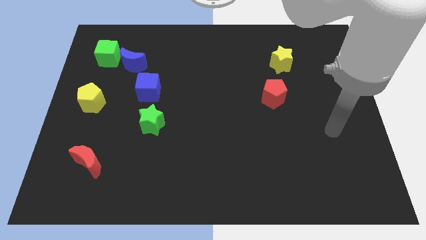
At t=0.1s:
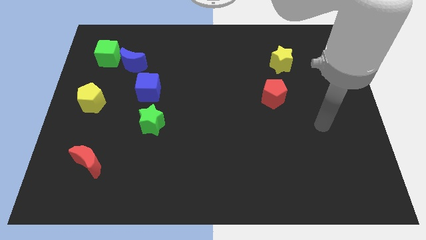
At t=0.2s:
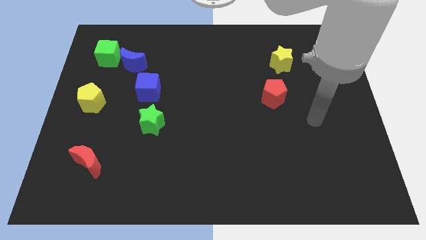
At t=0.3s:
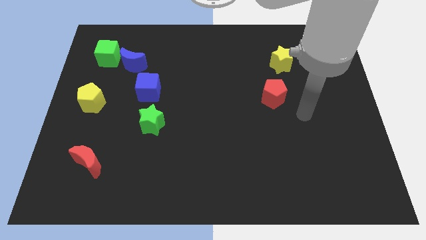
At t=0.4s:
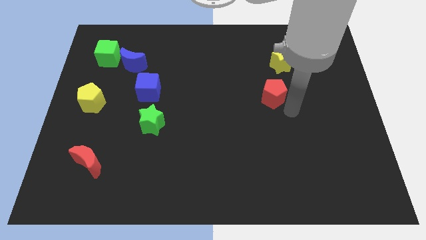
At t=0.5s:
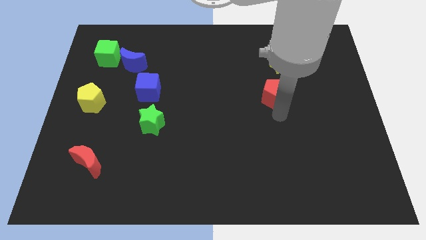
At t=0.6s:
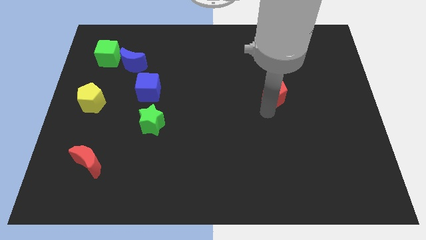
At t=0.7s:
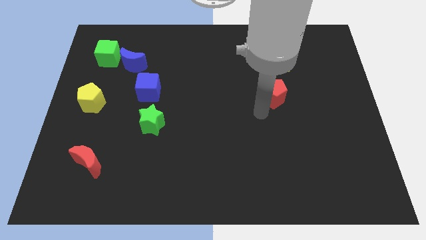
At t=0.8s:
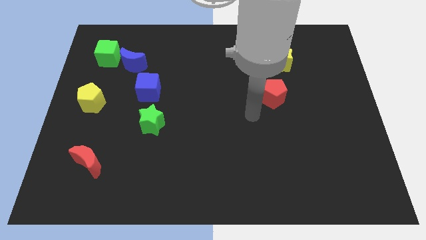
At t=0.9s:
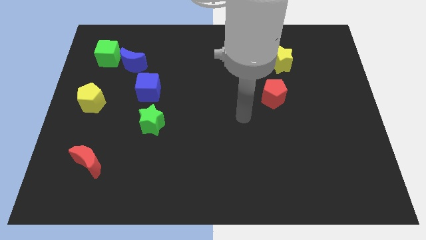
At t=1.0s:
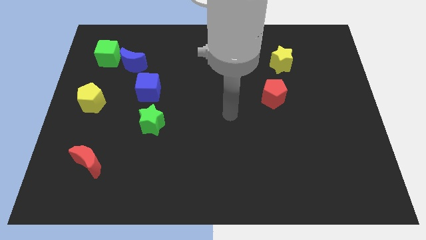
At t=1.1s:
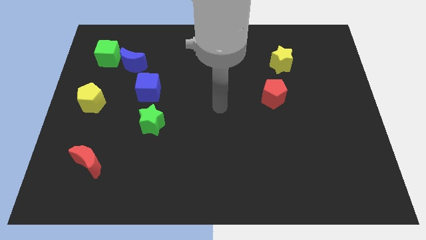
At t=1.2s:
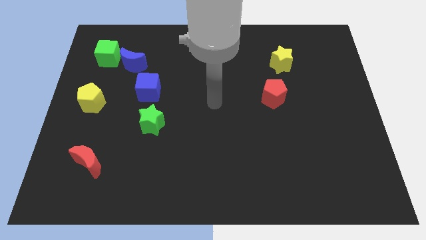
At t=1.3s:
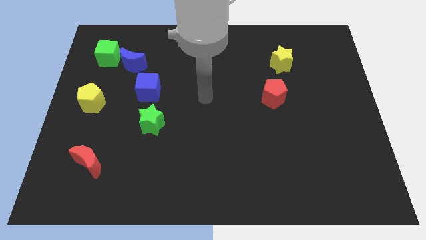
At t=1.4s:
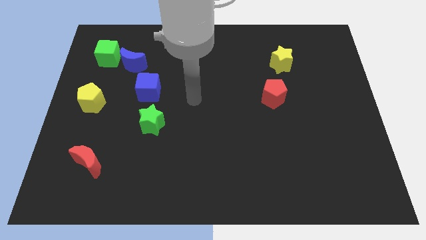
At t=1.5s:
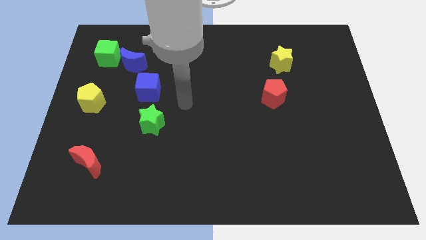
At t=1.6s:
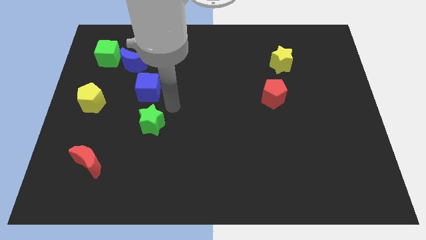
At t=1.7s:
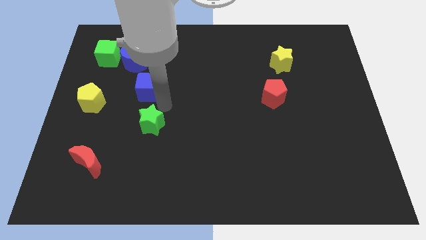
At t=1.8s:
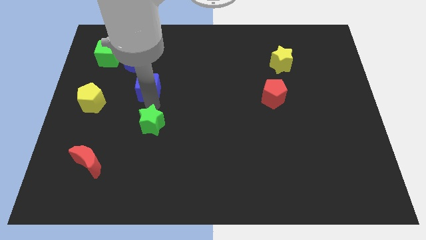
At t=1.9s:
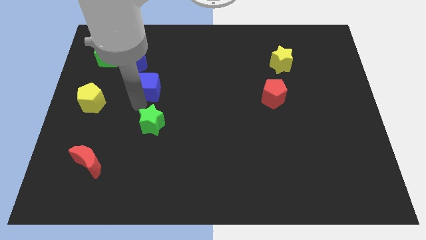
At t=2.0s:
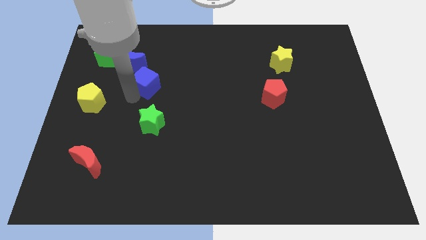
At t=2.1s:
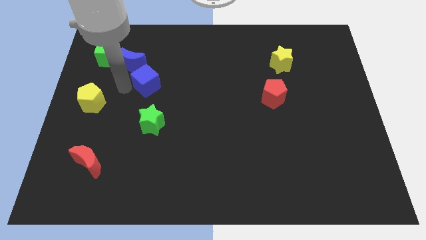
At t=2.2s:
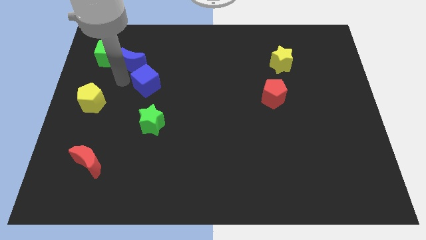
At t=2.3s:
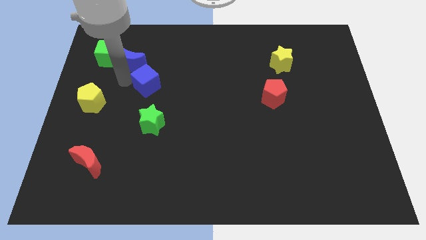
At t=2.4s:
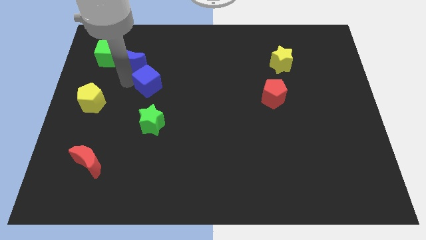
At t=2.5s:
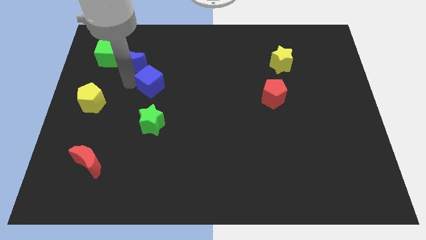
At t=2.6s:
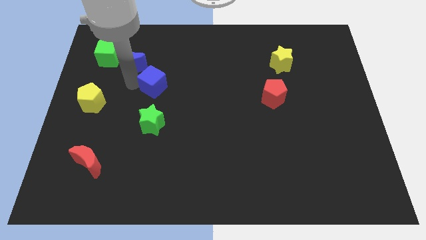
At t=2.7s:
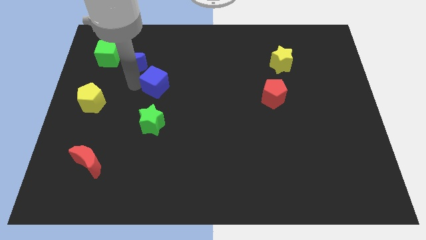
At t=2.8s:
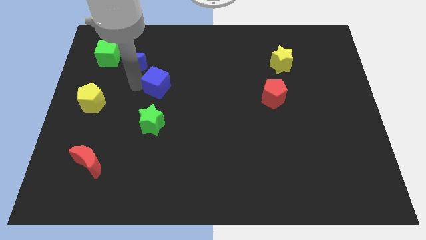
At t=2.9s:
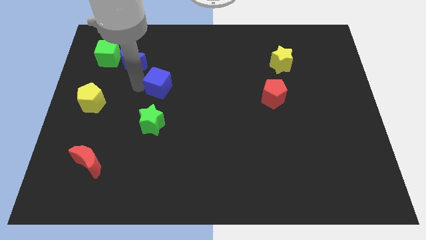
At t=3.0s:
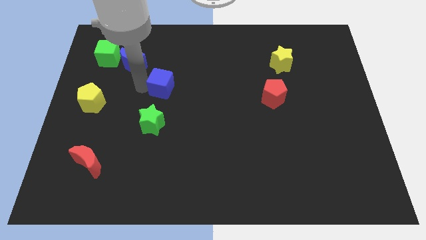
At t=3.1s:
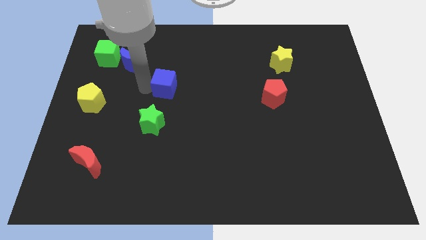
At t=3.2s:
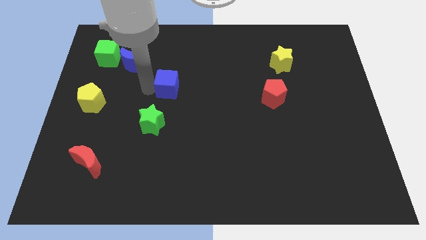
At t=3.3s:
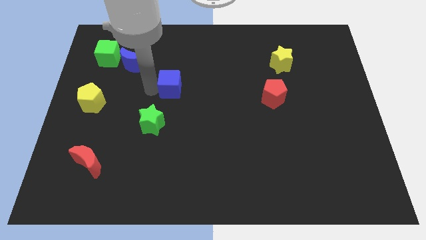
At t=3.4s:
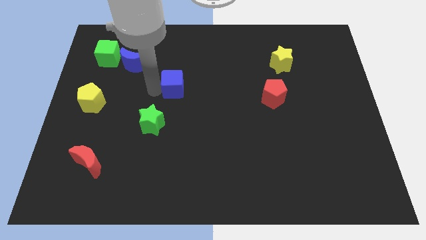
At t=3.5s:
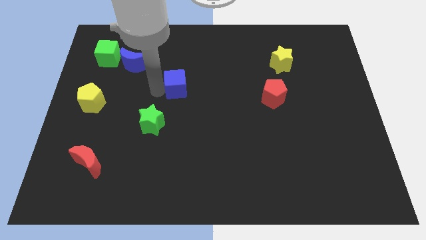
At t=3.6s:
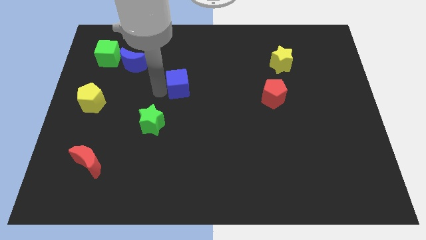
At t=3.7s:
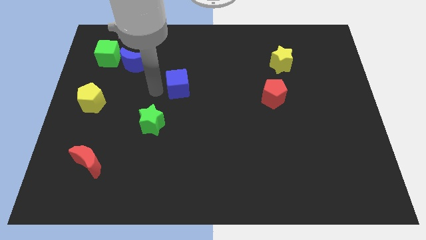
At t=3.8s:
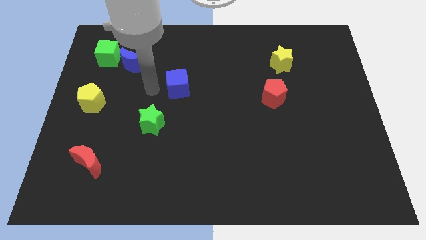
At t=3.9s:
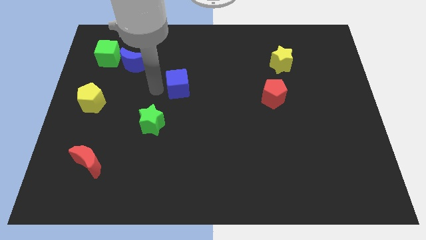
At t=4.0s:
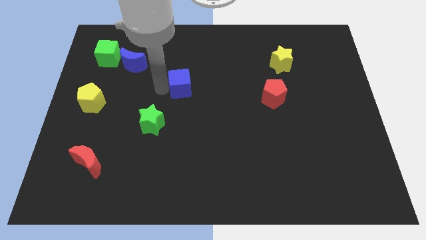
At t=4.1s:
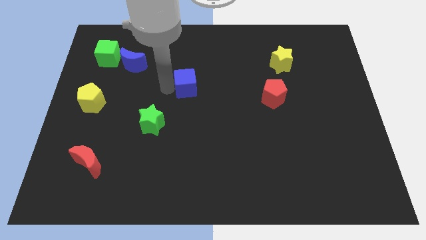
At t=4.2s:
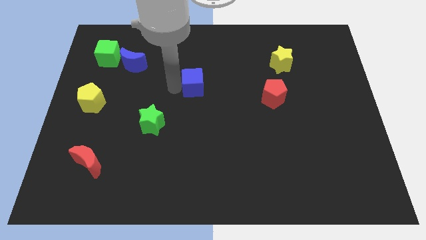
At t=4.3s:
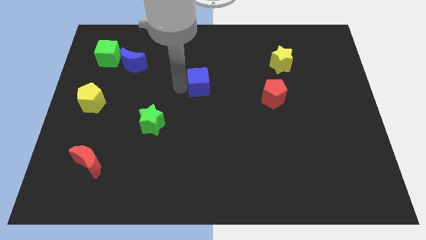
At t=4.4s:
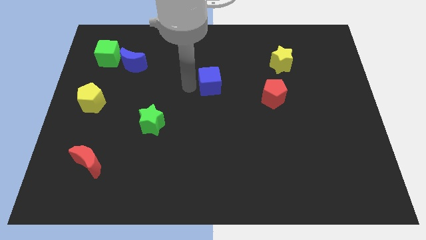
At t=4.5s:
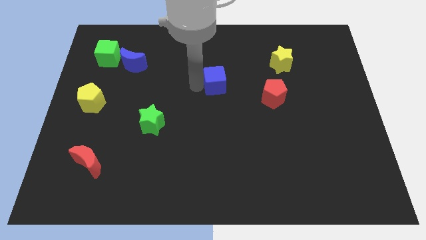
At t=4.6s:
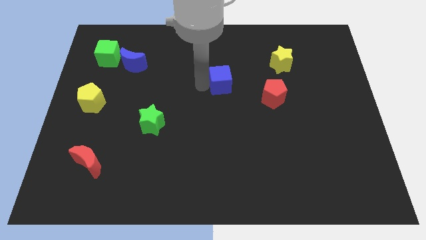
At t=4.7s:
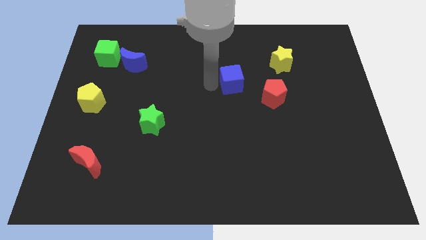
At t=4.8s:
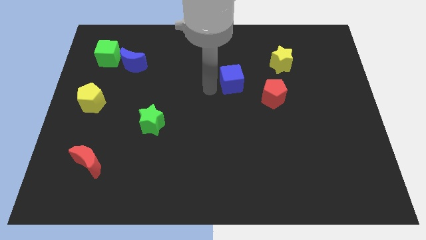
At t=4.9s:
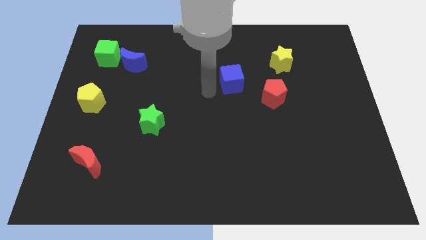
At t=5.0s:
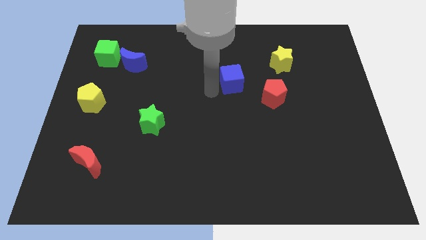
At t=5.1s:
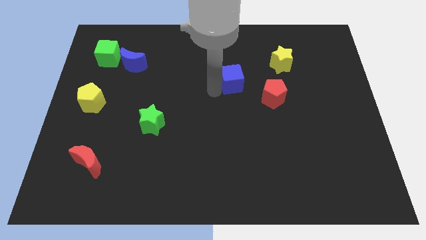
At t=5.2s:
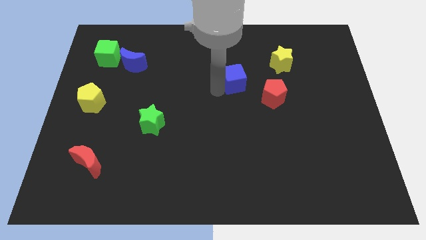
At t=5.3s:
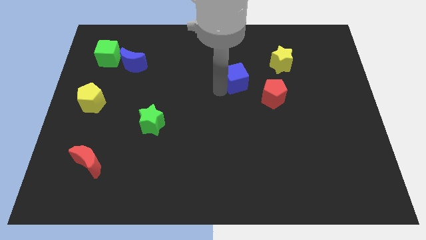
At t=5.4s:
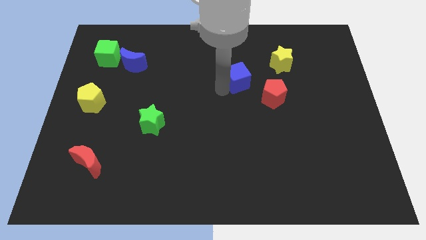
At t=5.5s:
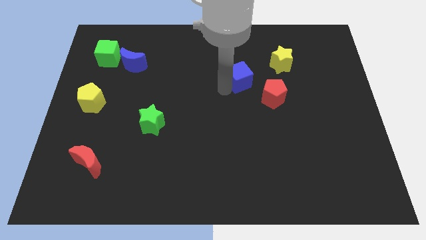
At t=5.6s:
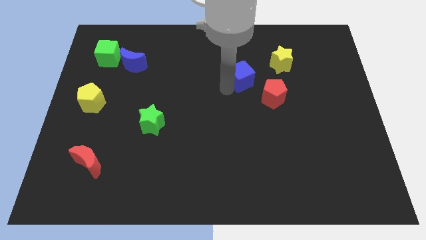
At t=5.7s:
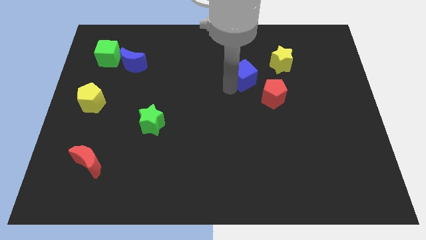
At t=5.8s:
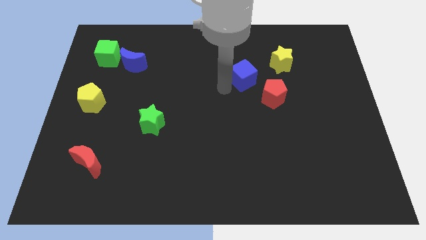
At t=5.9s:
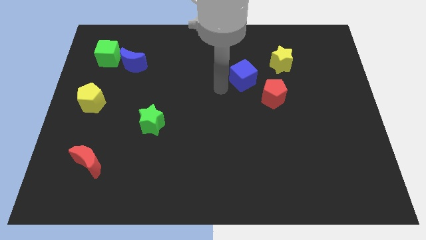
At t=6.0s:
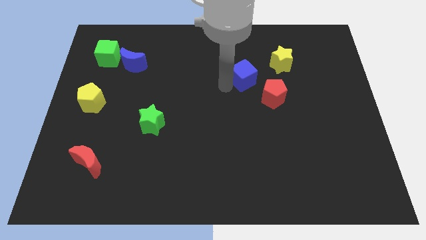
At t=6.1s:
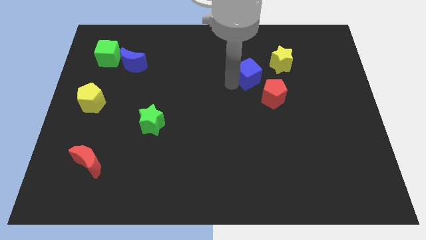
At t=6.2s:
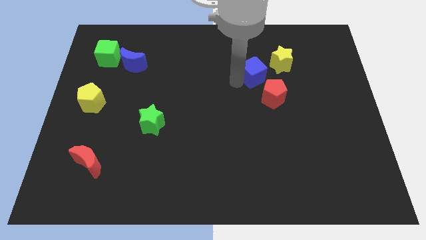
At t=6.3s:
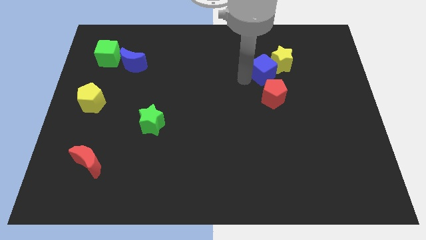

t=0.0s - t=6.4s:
slide the blue cube towards the yellow star

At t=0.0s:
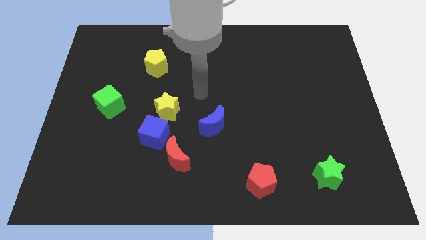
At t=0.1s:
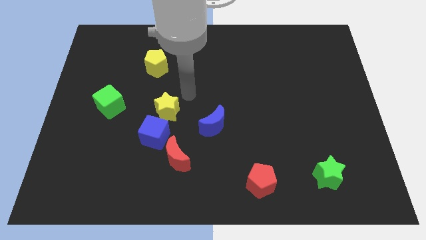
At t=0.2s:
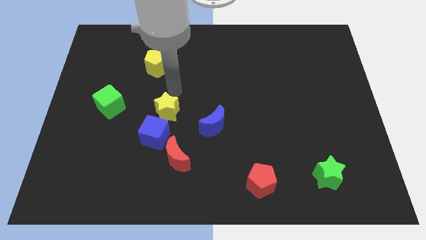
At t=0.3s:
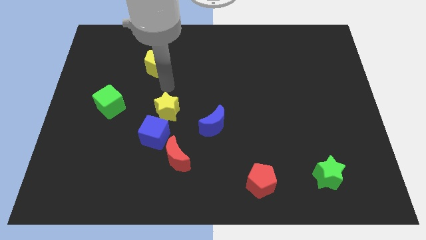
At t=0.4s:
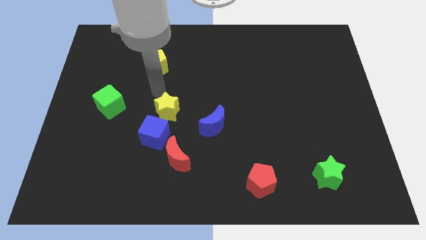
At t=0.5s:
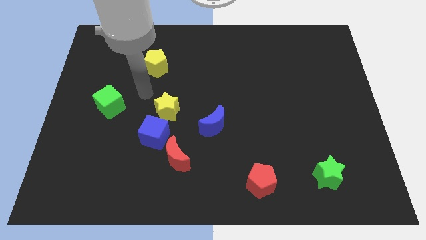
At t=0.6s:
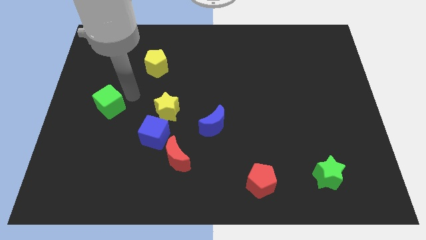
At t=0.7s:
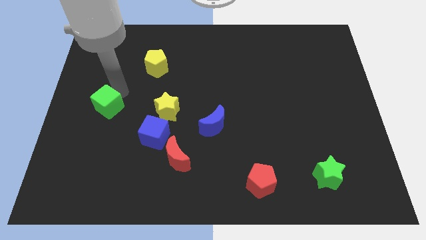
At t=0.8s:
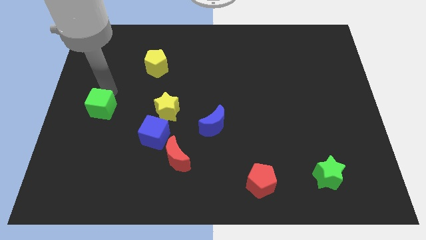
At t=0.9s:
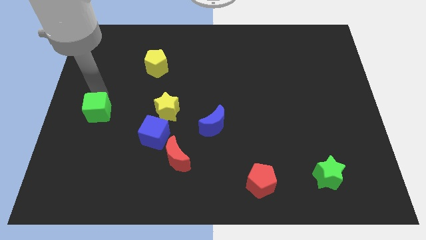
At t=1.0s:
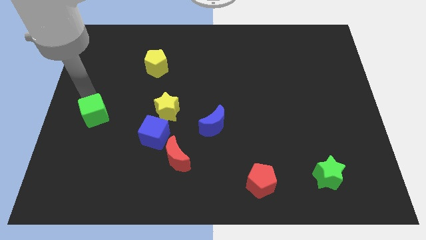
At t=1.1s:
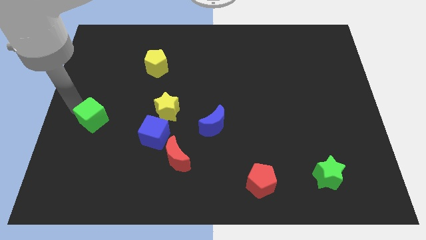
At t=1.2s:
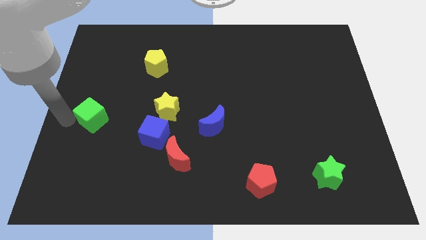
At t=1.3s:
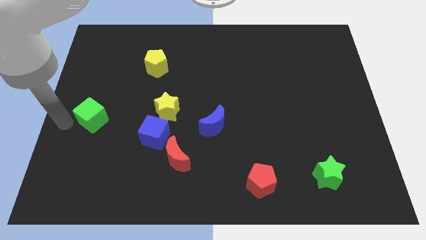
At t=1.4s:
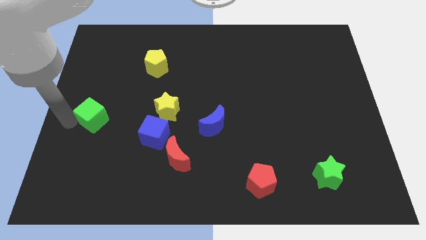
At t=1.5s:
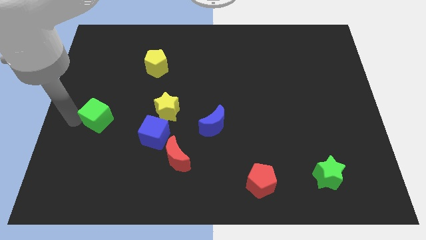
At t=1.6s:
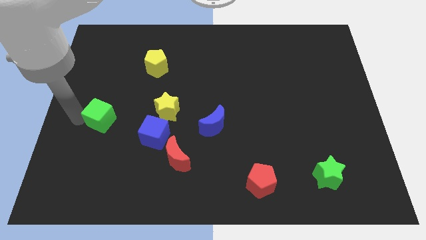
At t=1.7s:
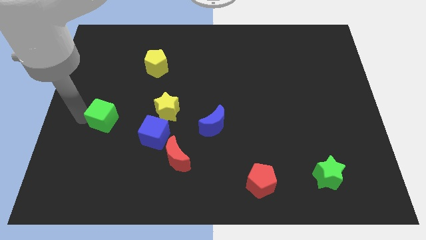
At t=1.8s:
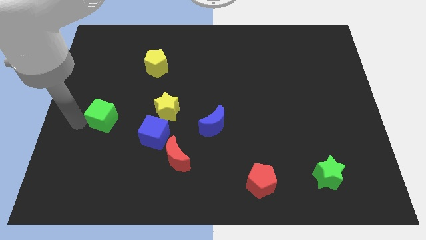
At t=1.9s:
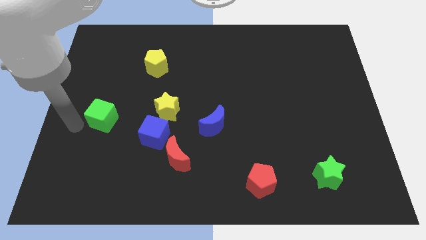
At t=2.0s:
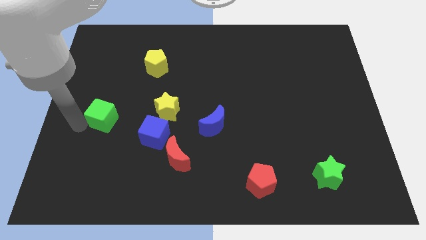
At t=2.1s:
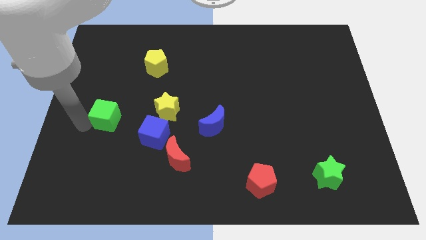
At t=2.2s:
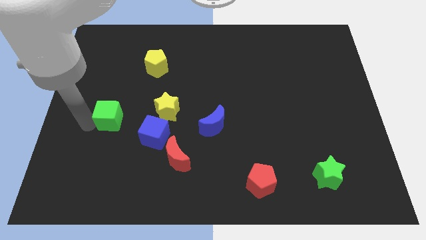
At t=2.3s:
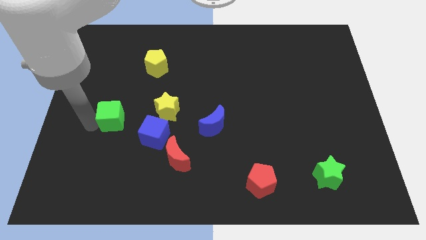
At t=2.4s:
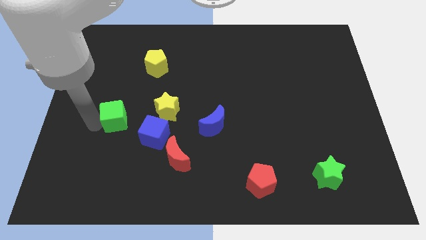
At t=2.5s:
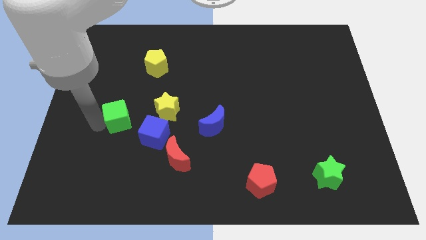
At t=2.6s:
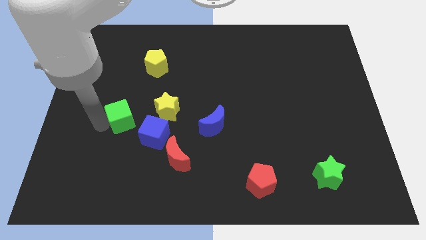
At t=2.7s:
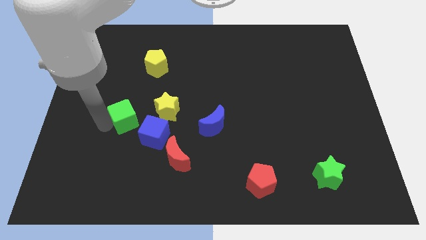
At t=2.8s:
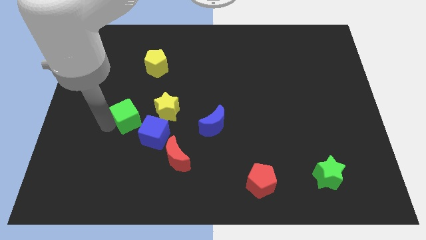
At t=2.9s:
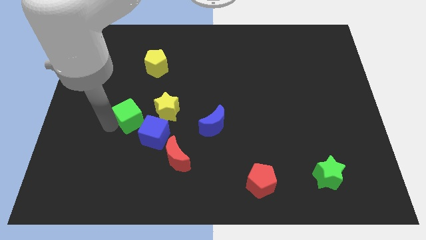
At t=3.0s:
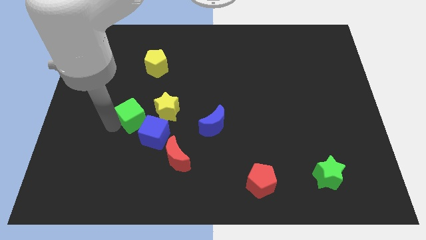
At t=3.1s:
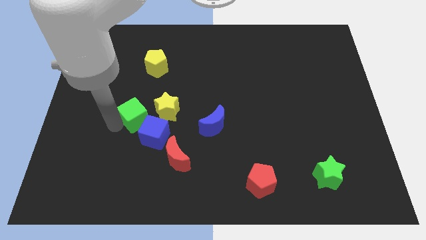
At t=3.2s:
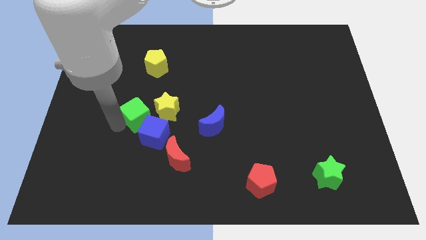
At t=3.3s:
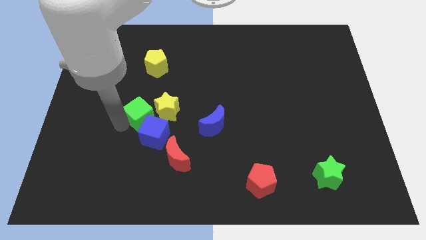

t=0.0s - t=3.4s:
slide the green cube towards the yellow star
